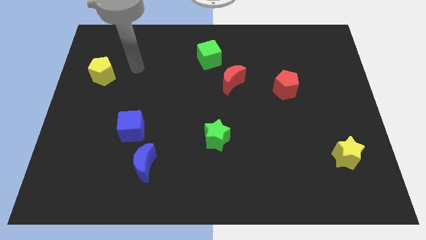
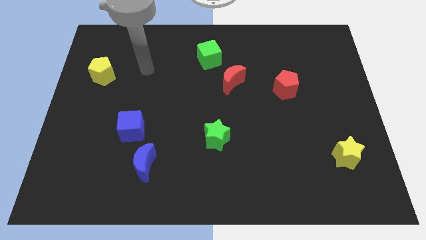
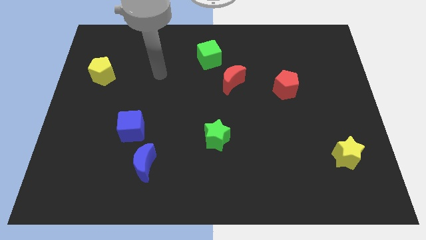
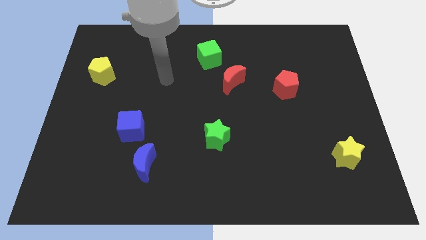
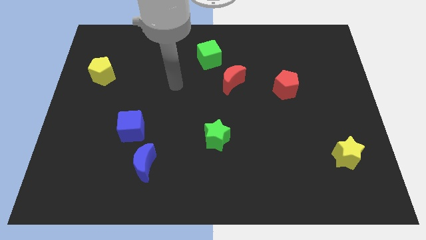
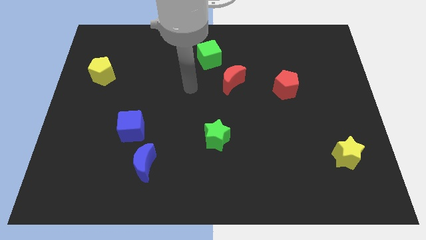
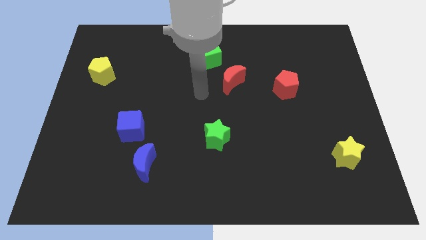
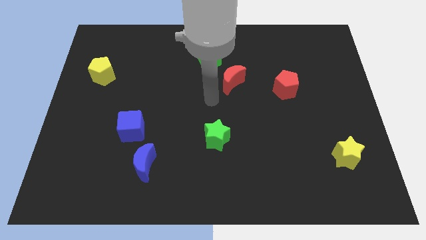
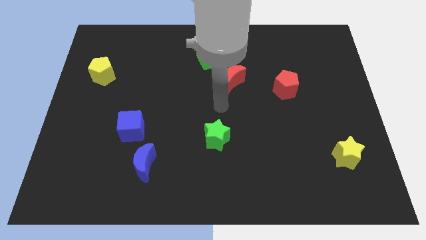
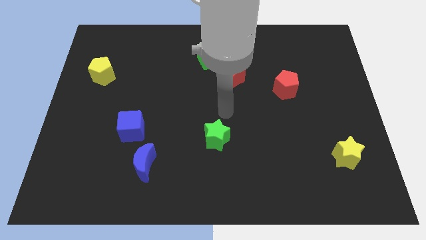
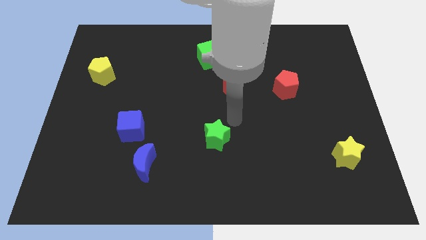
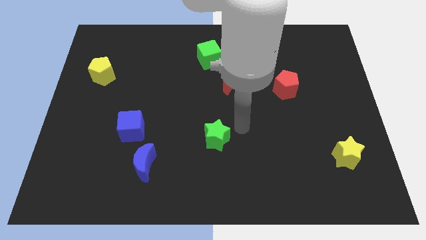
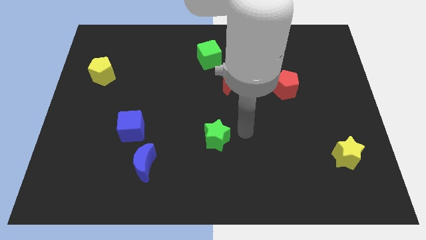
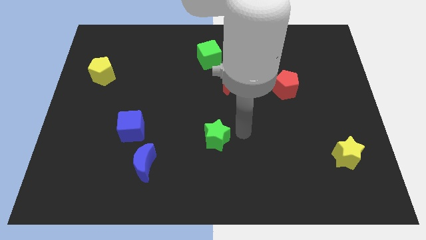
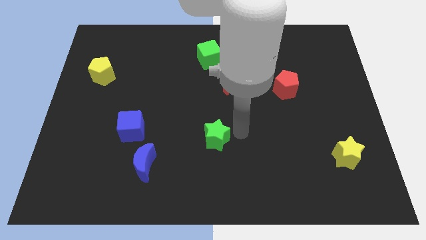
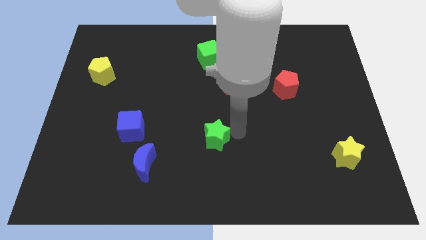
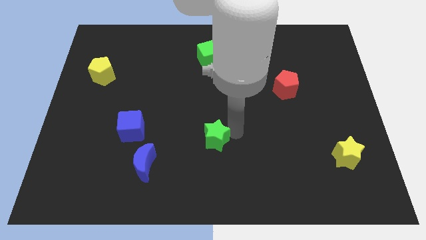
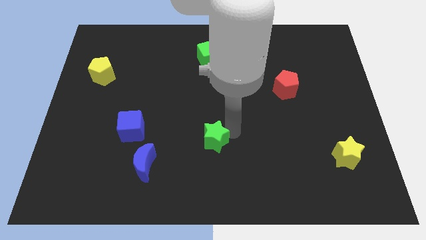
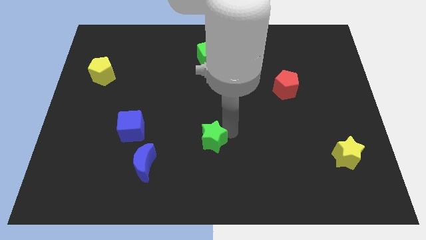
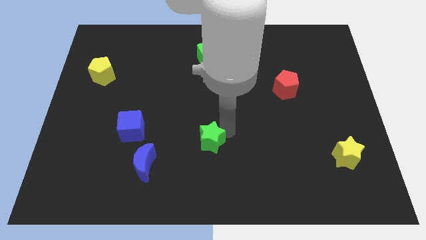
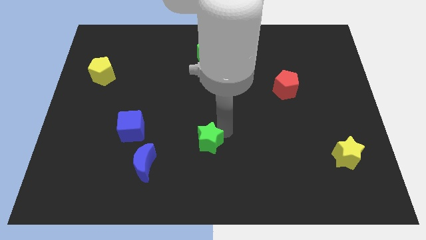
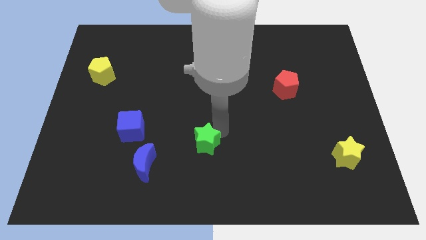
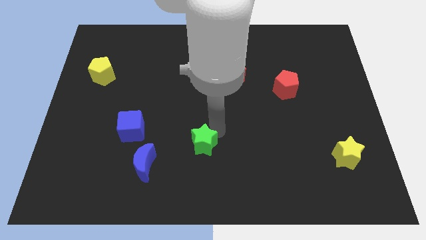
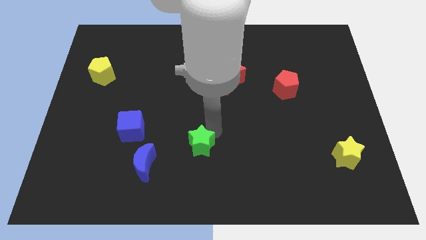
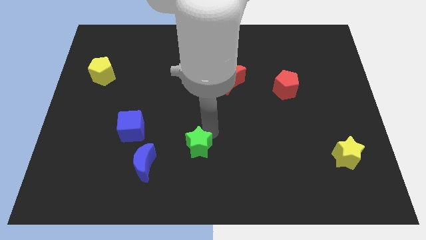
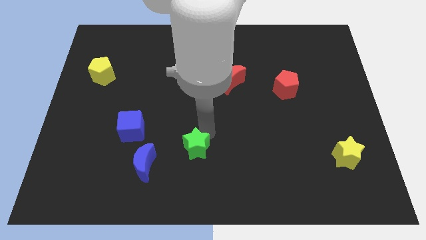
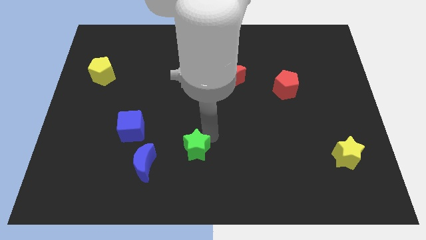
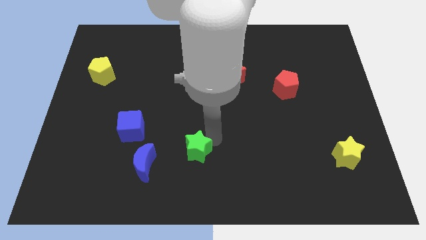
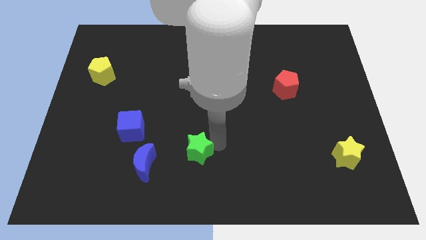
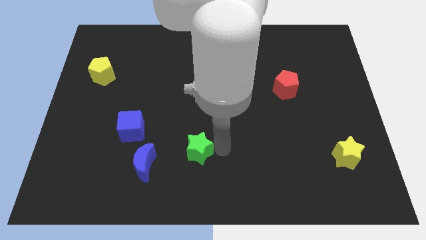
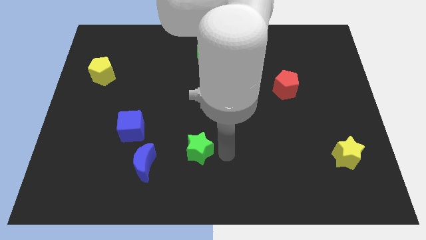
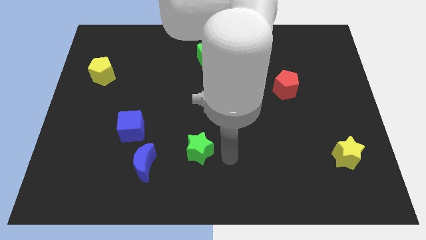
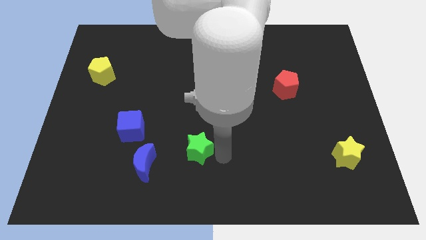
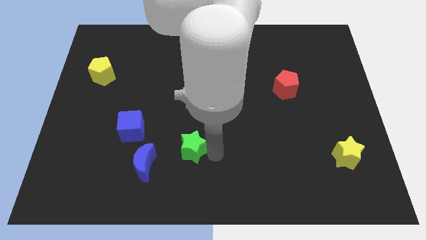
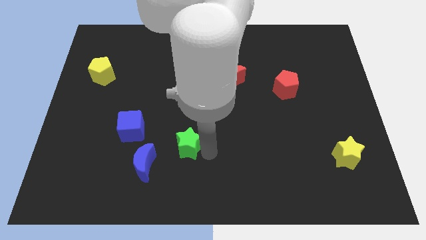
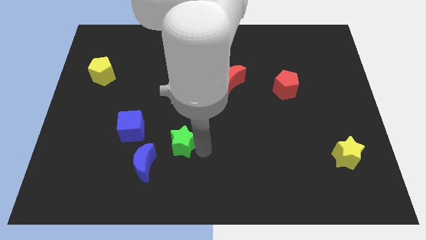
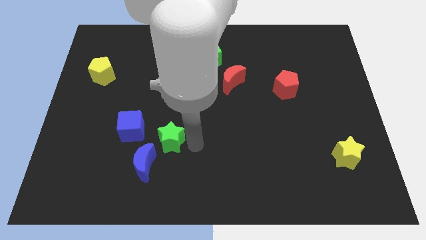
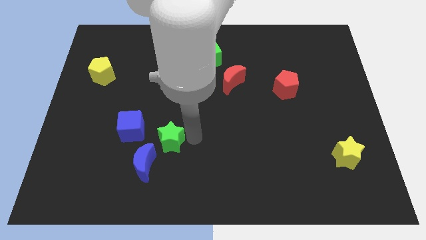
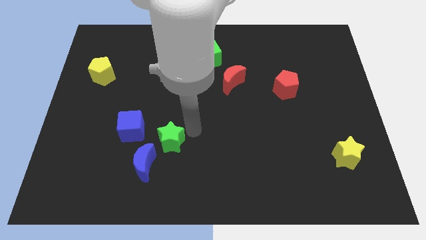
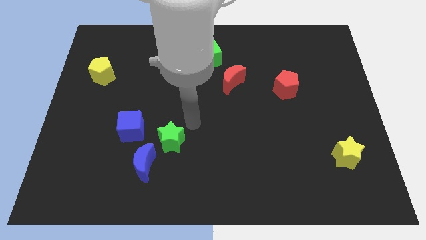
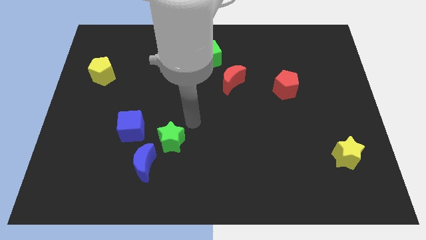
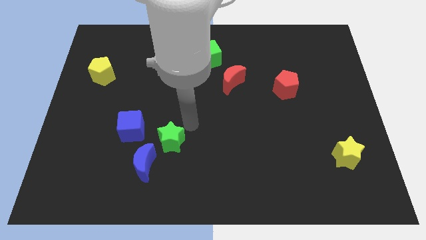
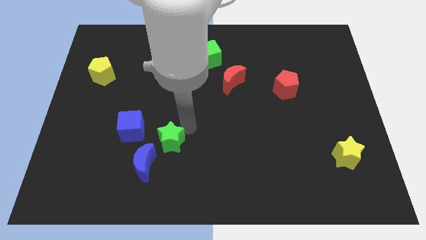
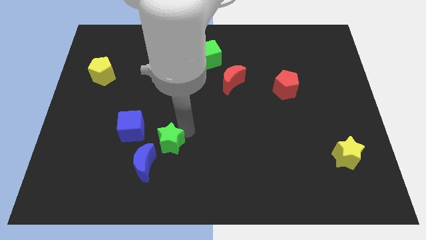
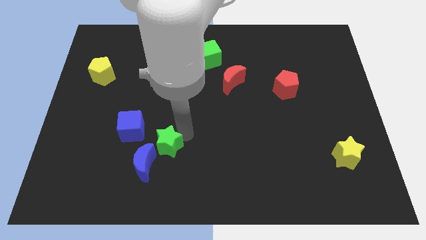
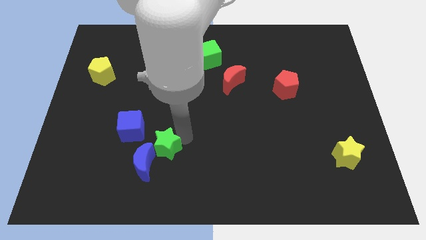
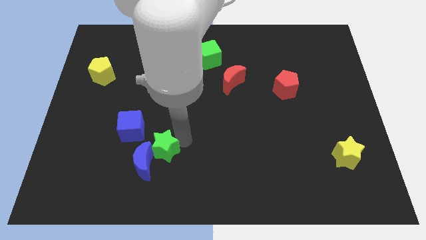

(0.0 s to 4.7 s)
put the green star next to the blue moon

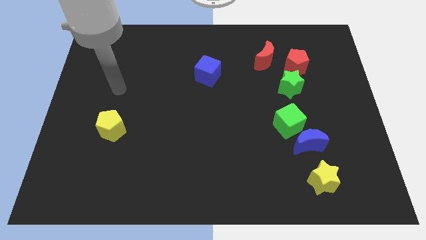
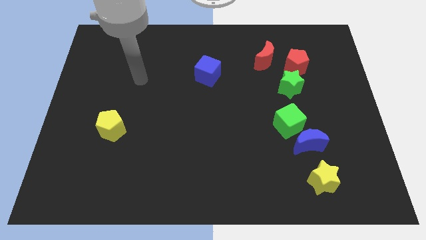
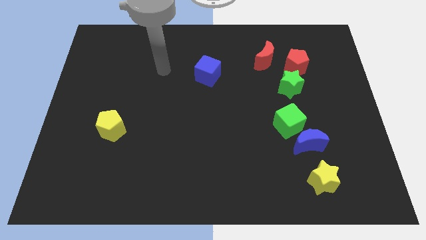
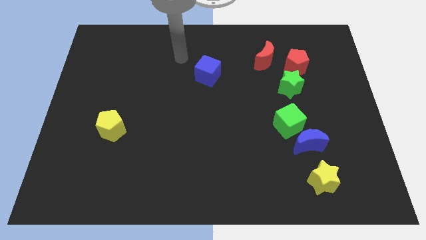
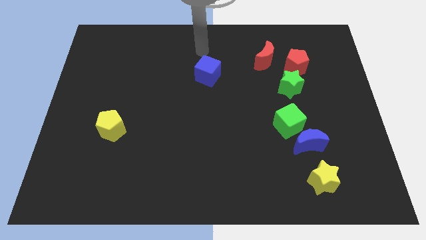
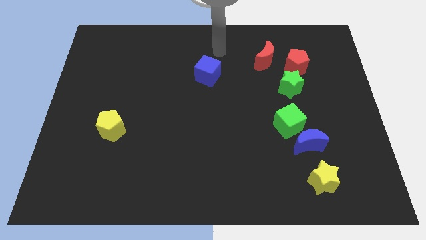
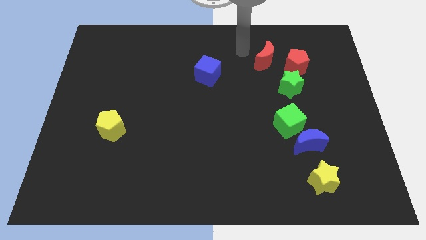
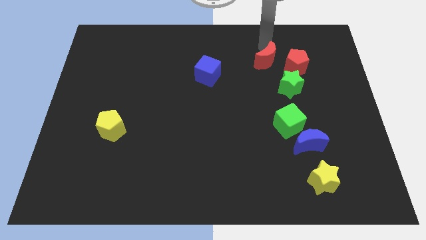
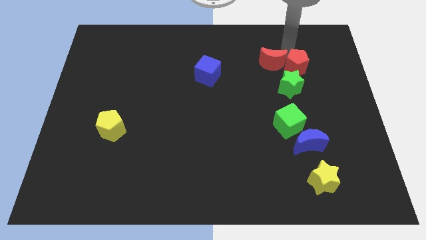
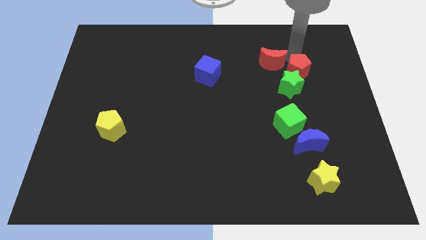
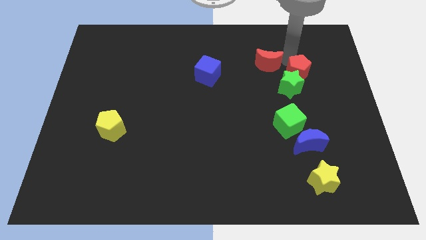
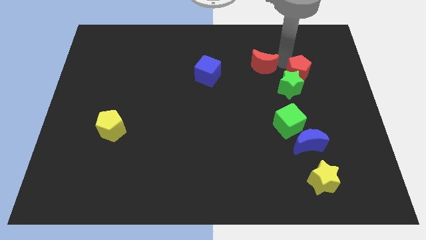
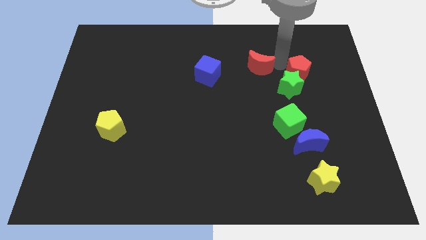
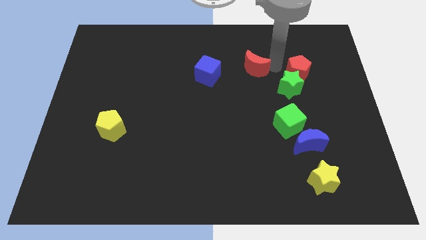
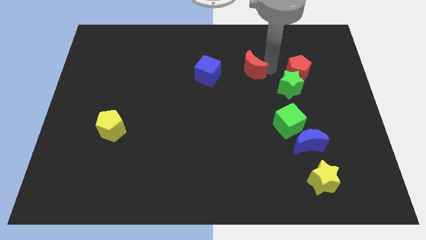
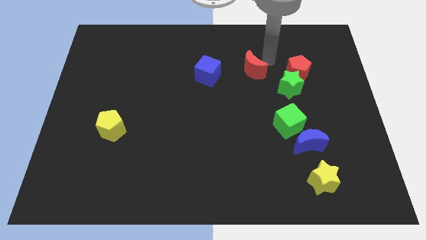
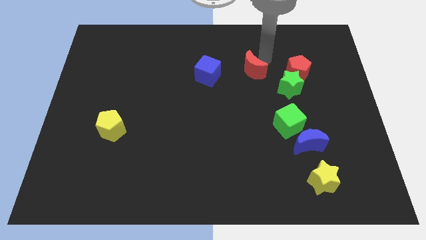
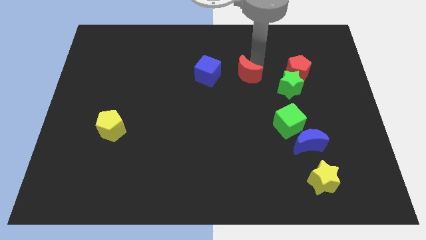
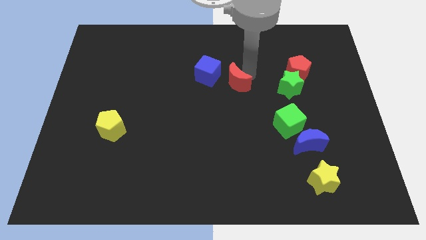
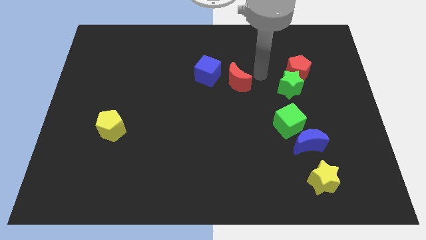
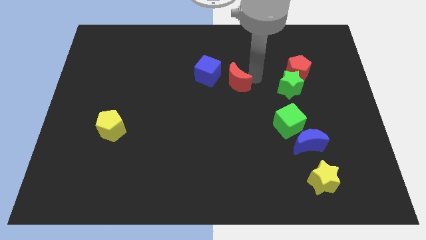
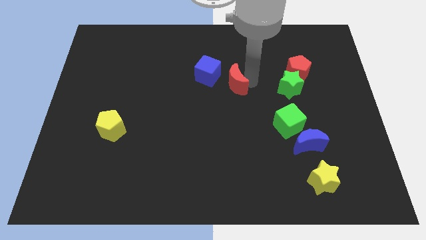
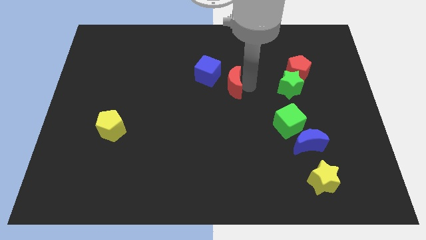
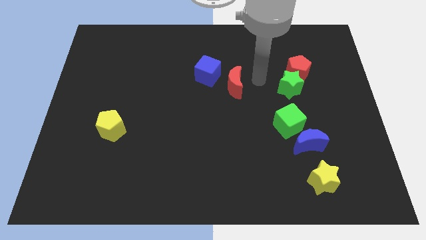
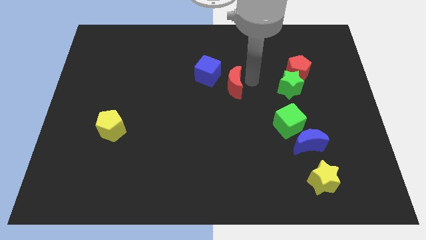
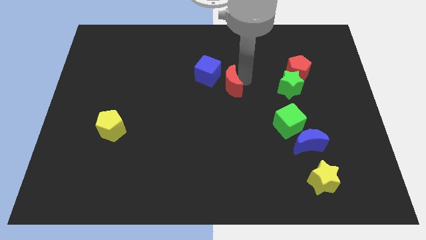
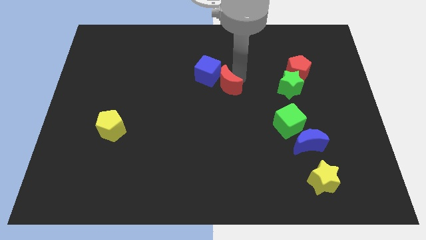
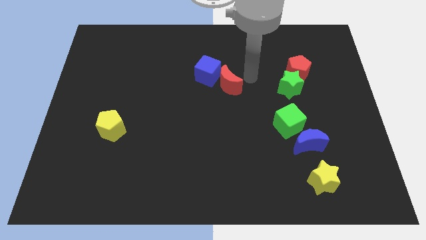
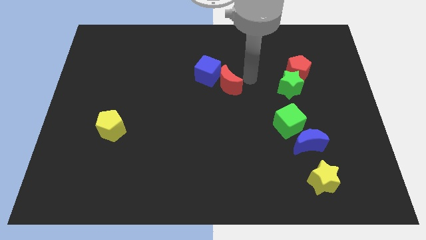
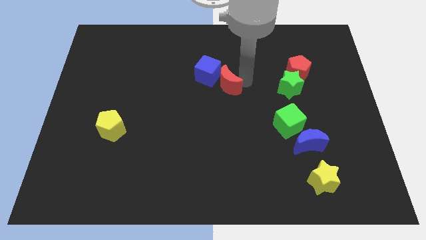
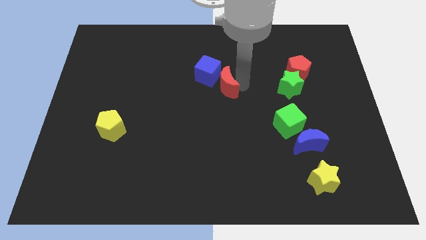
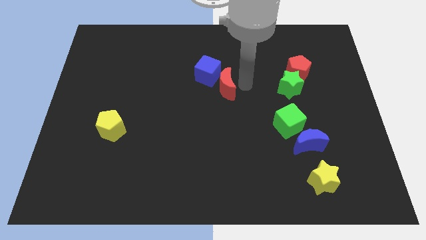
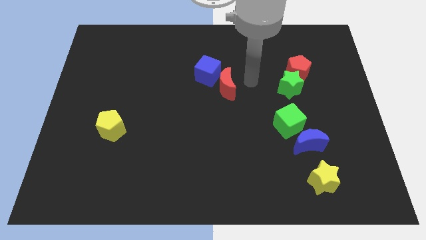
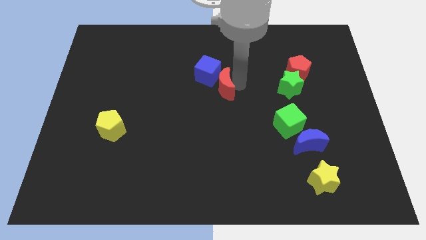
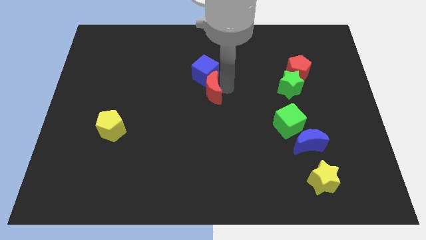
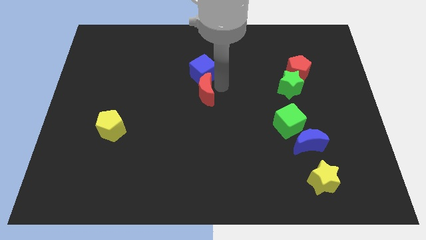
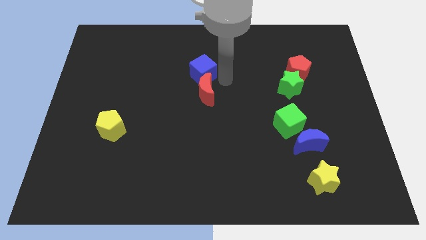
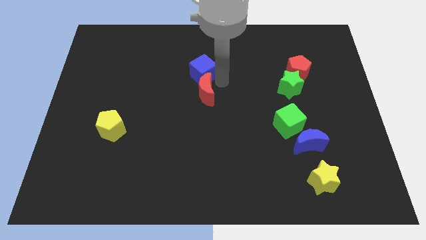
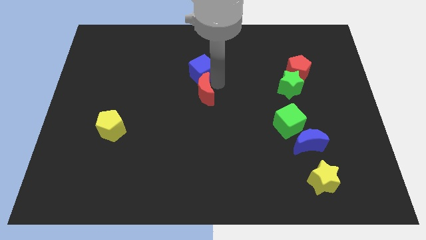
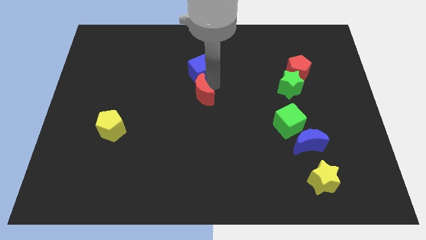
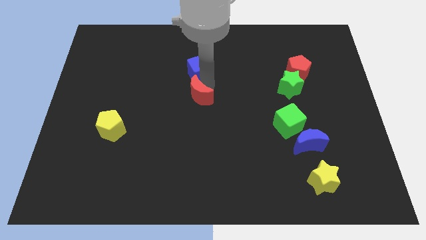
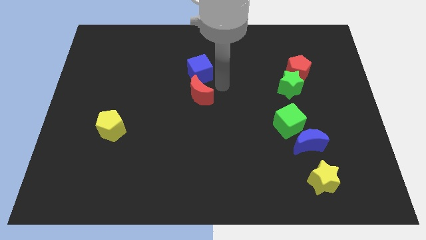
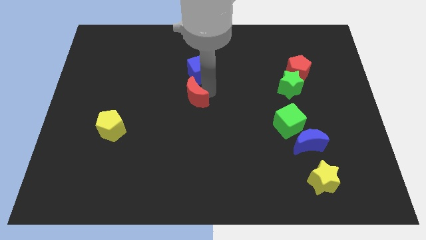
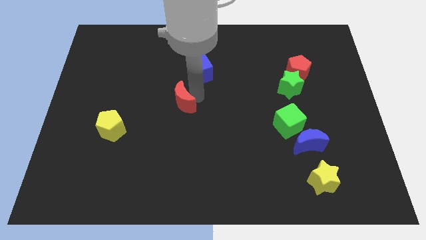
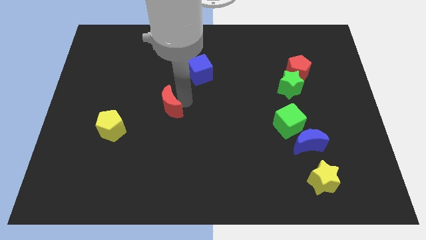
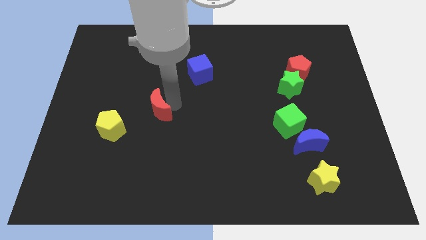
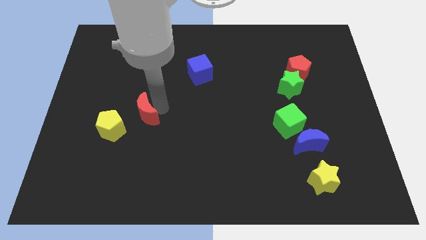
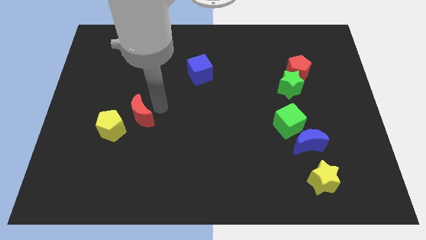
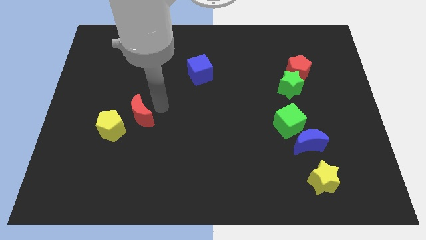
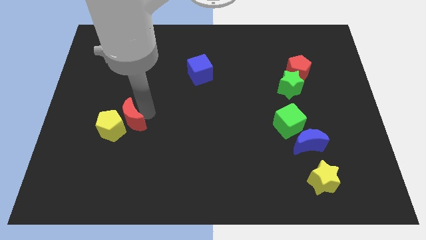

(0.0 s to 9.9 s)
put the red moon to the yellow pentagon
